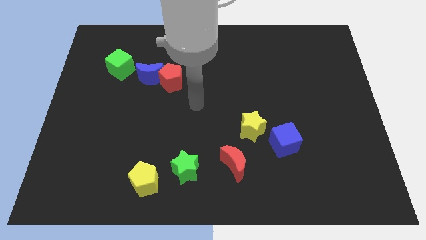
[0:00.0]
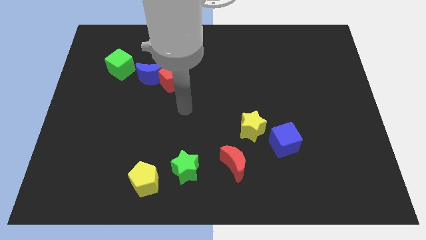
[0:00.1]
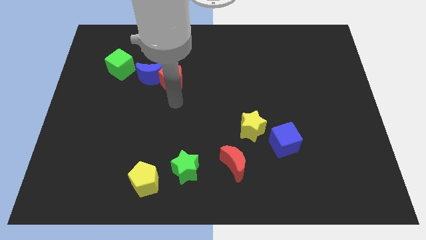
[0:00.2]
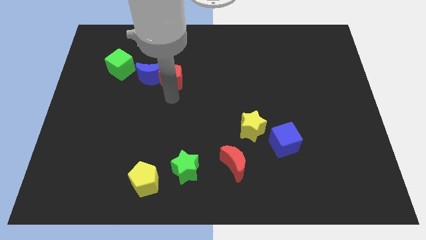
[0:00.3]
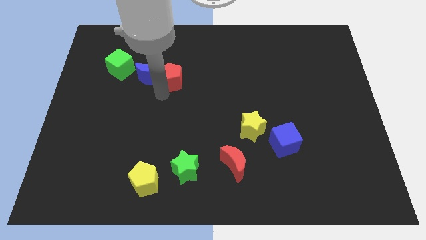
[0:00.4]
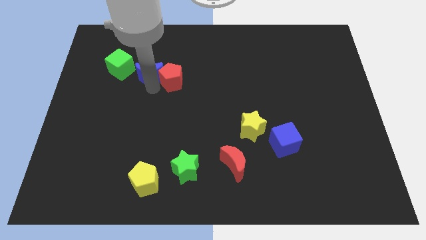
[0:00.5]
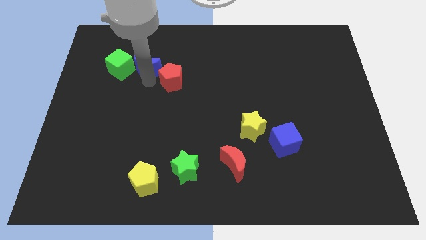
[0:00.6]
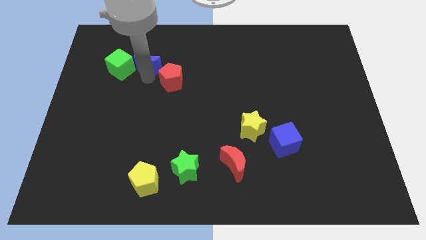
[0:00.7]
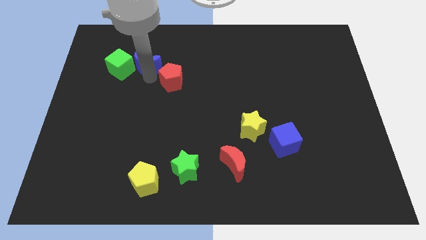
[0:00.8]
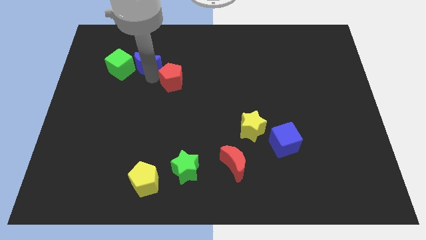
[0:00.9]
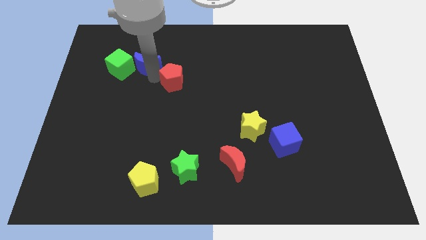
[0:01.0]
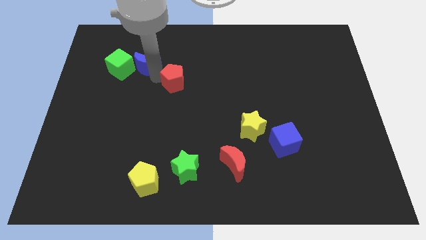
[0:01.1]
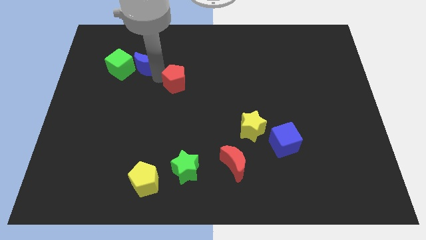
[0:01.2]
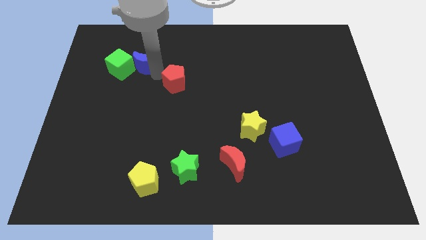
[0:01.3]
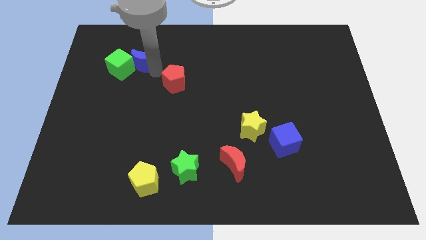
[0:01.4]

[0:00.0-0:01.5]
separate the red pentagon from the blue moon

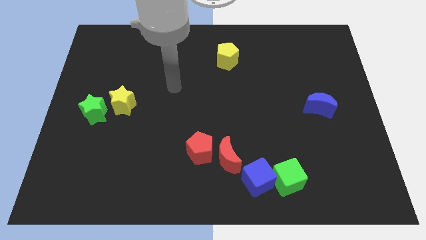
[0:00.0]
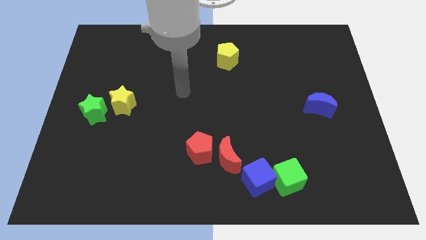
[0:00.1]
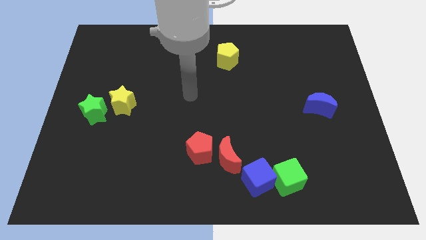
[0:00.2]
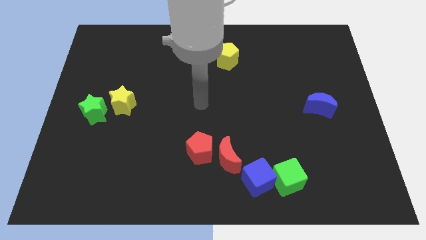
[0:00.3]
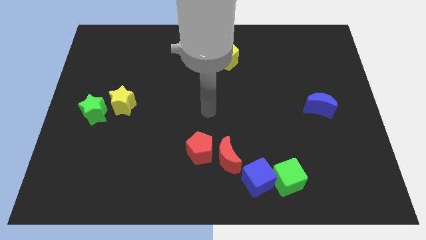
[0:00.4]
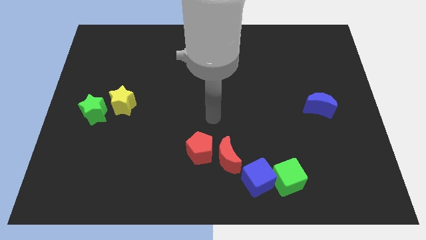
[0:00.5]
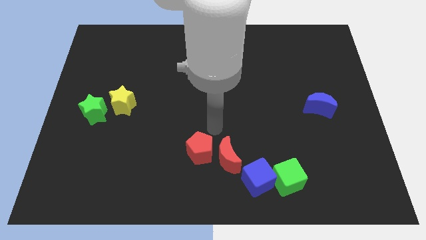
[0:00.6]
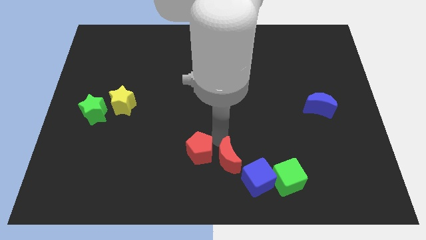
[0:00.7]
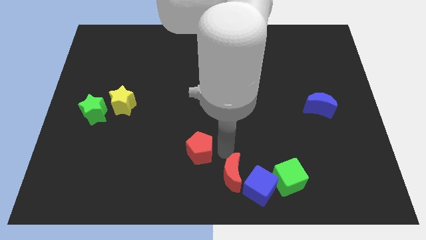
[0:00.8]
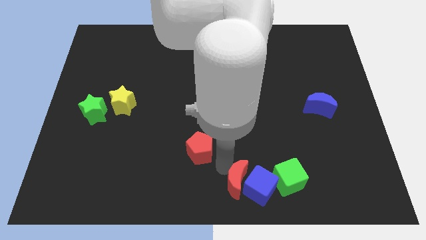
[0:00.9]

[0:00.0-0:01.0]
move the red pentagon away from the red moon

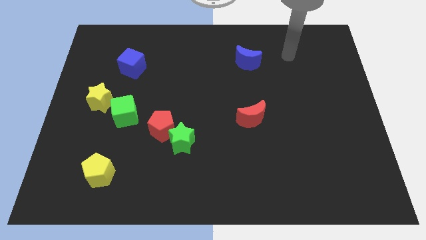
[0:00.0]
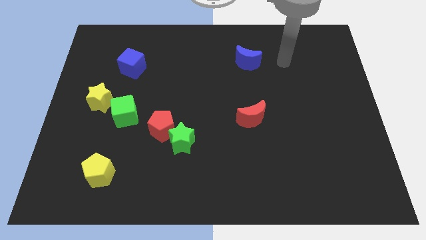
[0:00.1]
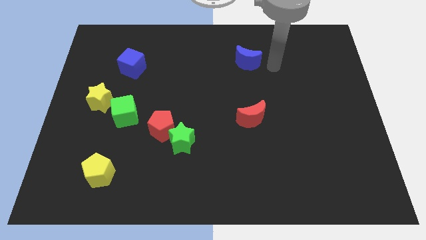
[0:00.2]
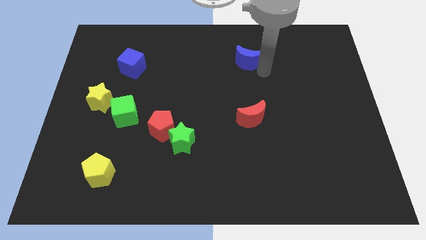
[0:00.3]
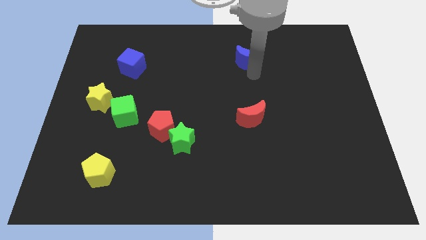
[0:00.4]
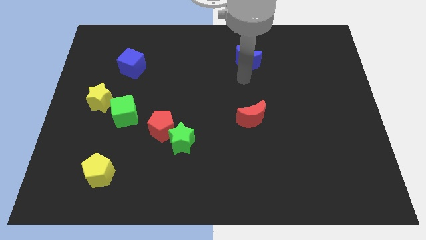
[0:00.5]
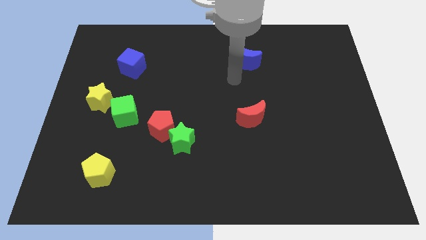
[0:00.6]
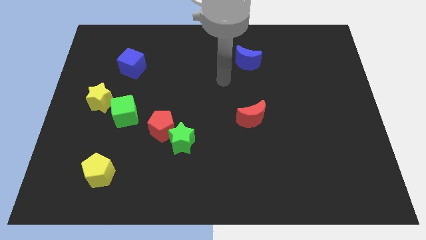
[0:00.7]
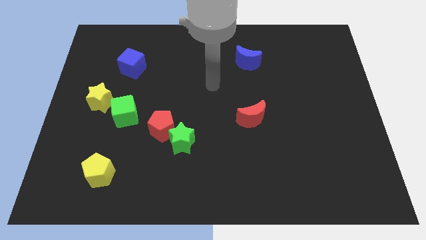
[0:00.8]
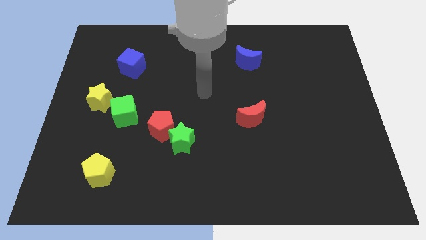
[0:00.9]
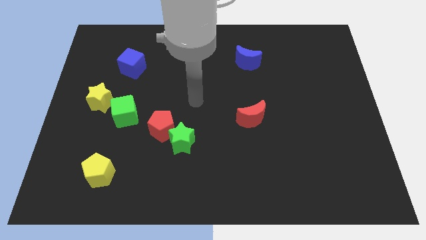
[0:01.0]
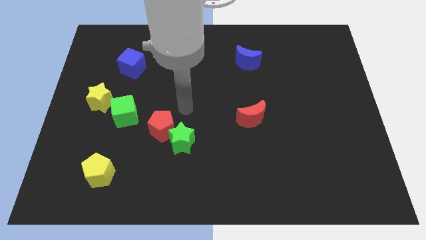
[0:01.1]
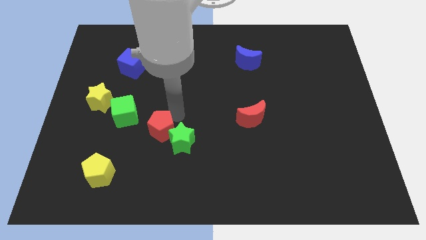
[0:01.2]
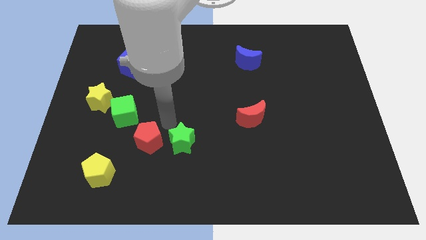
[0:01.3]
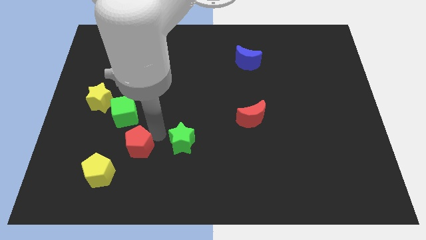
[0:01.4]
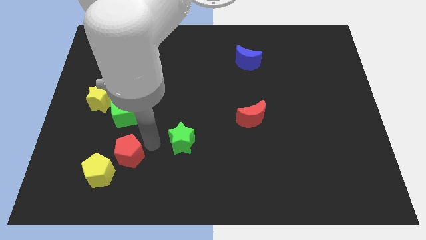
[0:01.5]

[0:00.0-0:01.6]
separate the green star from the red pentagon

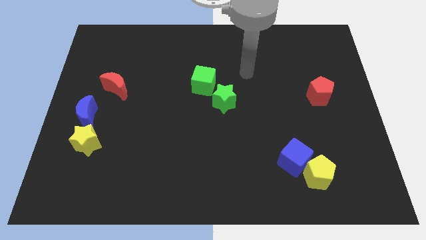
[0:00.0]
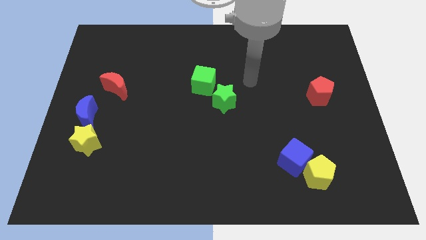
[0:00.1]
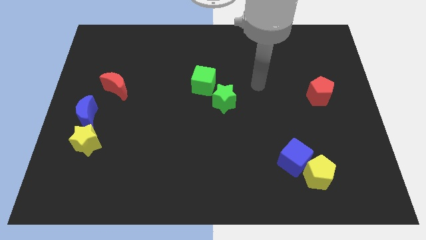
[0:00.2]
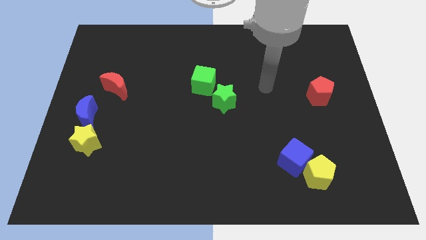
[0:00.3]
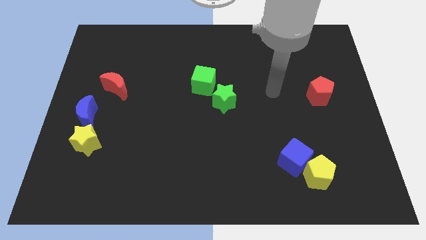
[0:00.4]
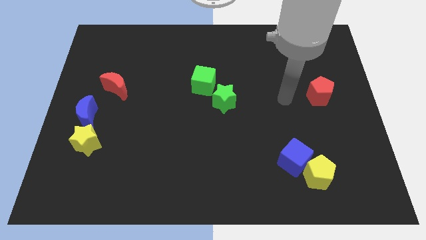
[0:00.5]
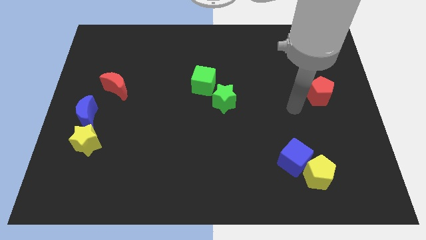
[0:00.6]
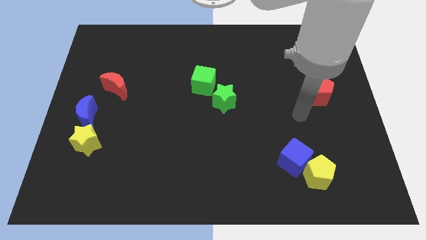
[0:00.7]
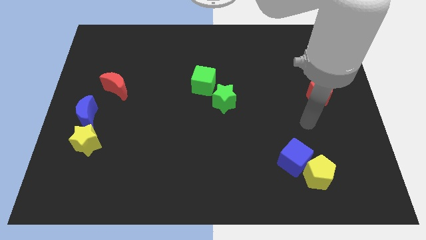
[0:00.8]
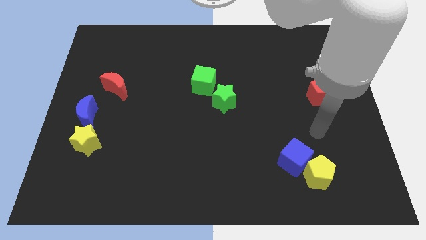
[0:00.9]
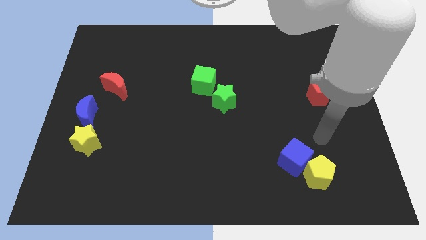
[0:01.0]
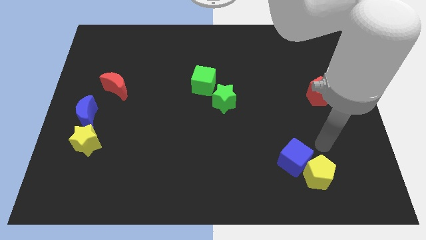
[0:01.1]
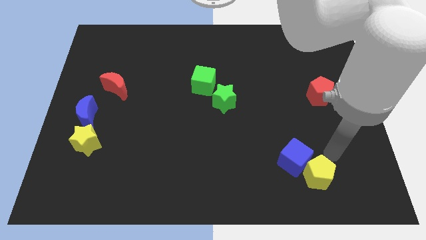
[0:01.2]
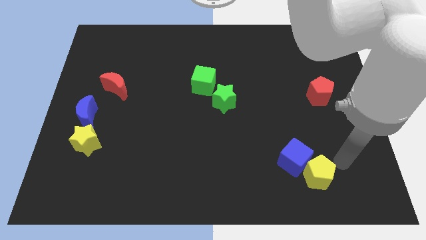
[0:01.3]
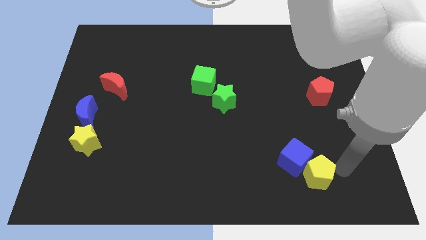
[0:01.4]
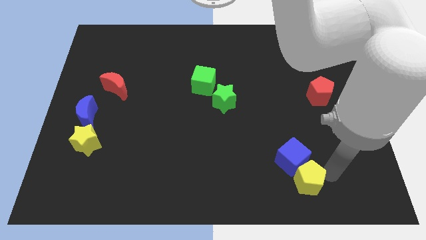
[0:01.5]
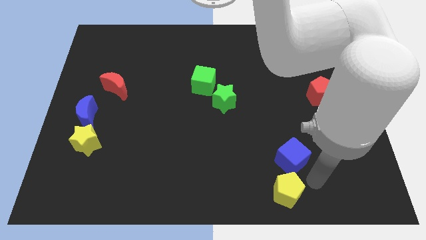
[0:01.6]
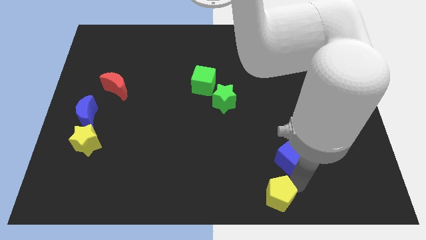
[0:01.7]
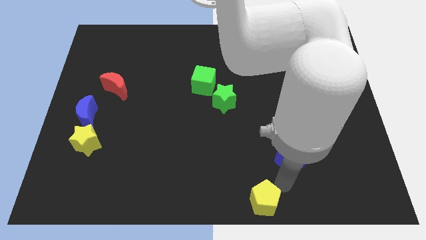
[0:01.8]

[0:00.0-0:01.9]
pull the blue cube apart from the yellow pentagon

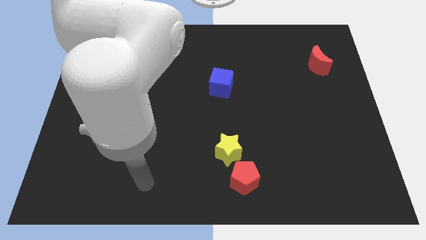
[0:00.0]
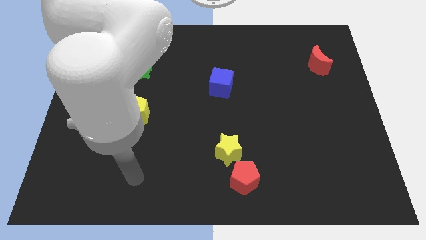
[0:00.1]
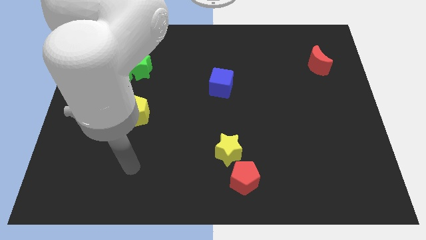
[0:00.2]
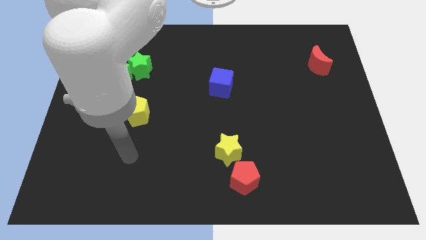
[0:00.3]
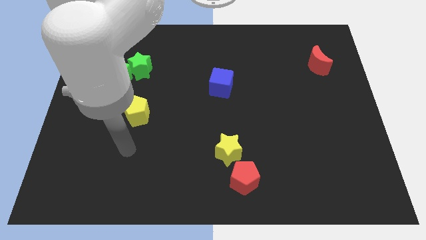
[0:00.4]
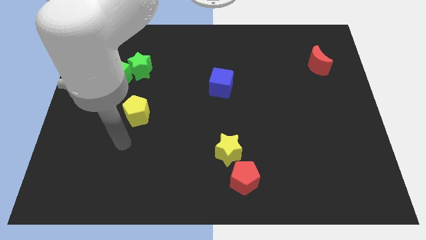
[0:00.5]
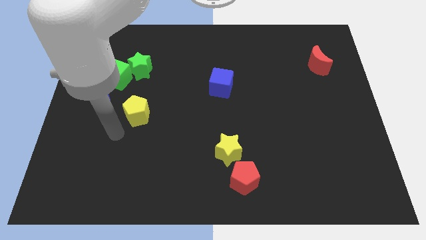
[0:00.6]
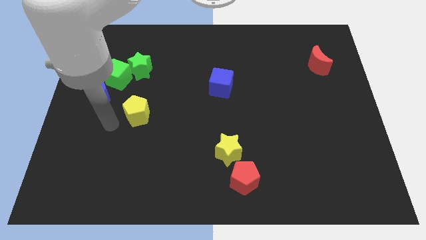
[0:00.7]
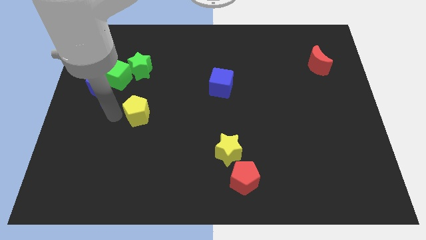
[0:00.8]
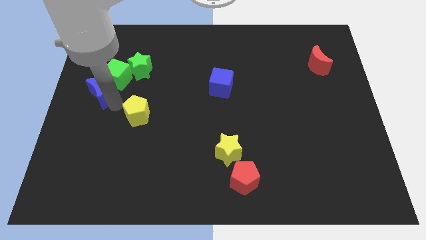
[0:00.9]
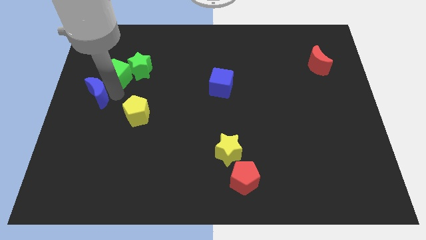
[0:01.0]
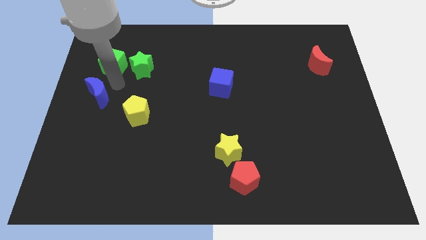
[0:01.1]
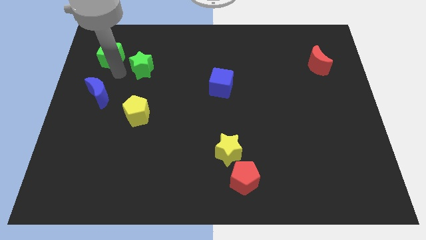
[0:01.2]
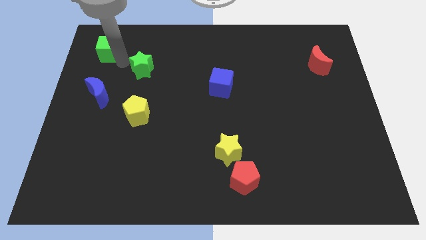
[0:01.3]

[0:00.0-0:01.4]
pull the green star apart from the green cube

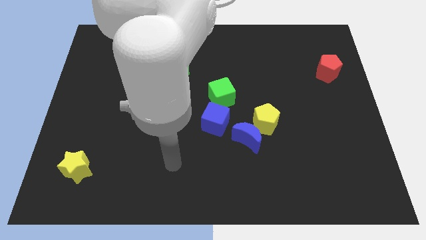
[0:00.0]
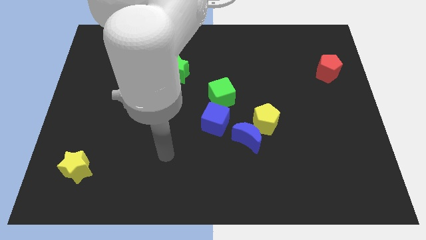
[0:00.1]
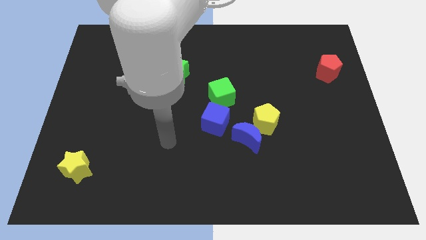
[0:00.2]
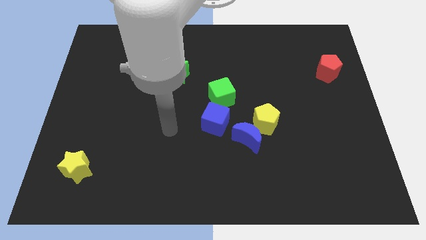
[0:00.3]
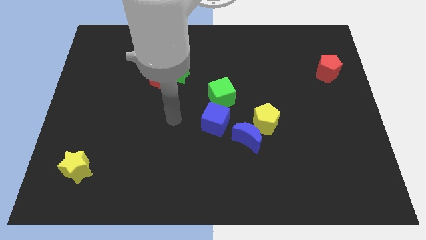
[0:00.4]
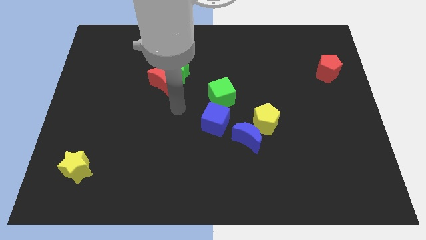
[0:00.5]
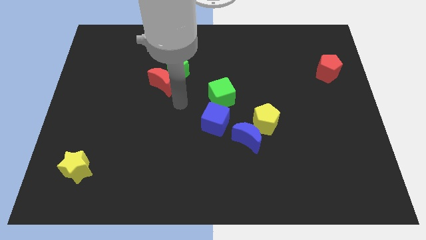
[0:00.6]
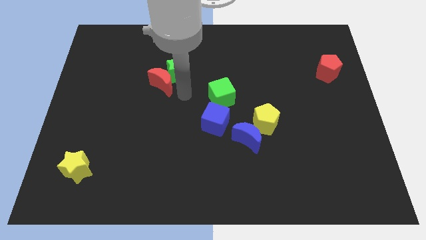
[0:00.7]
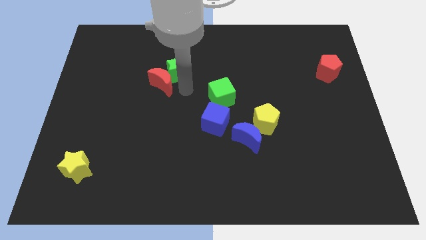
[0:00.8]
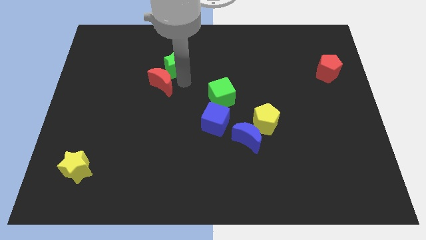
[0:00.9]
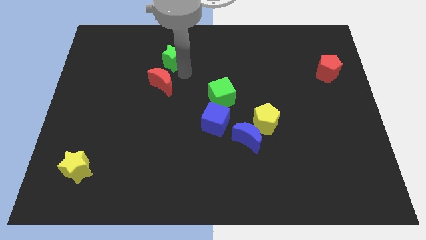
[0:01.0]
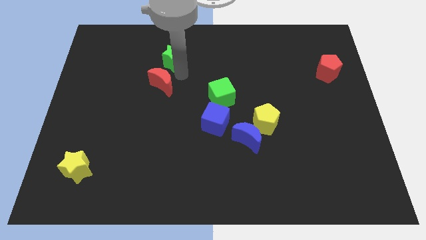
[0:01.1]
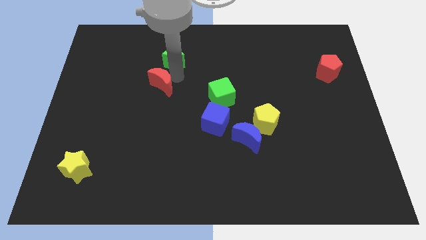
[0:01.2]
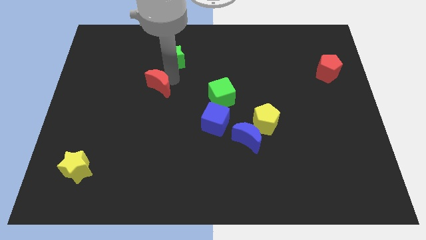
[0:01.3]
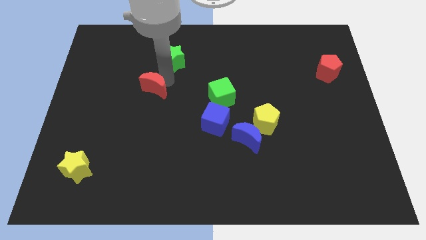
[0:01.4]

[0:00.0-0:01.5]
move the red moon away from the green star

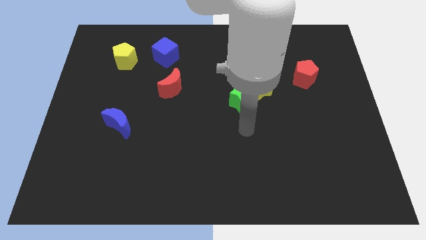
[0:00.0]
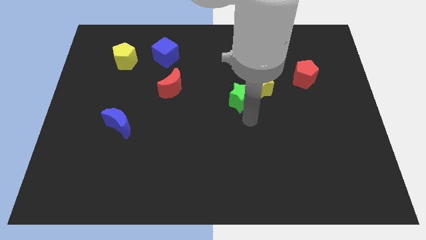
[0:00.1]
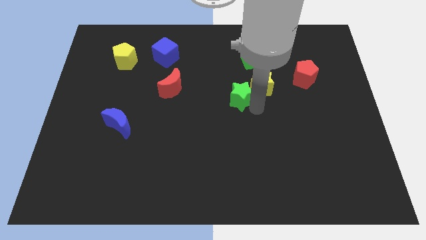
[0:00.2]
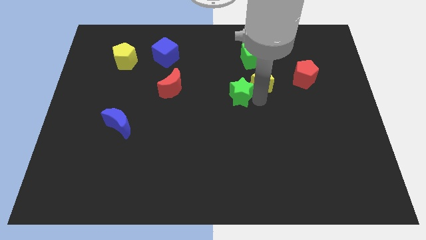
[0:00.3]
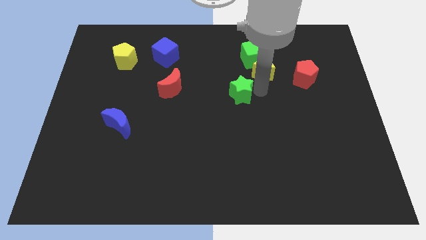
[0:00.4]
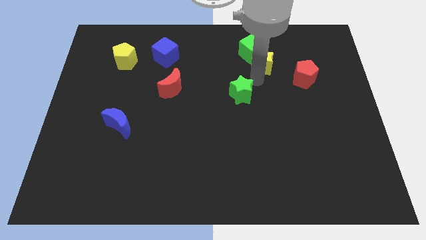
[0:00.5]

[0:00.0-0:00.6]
pull the green star apart from the yellow star
